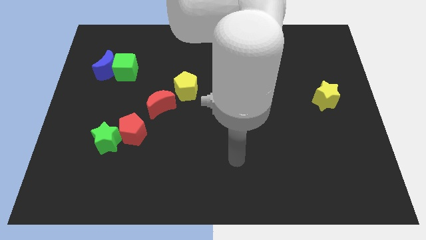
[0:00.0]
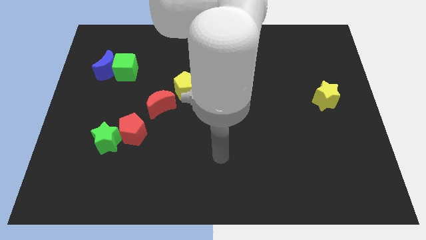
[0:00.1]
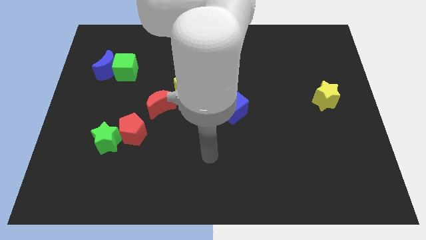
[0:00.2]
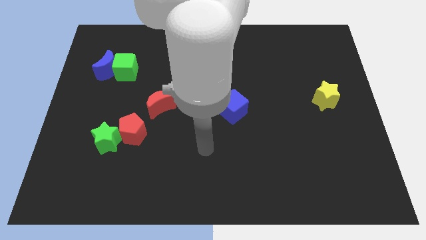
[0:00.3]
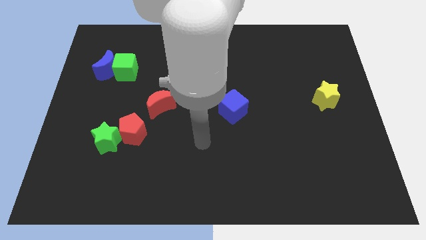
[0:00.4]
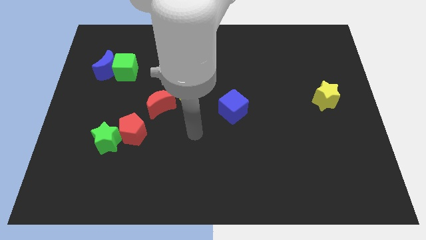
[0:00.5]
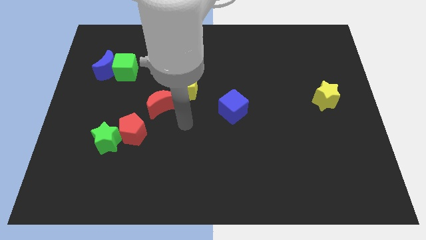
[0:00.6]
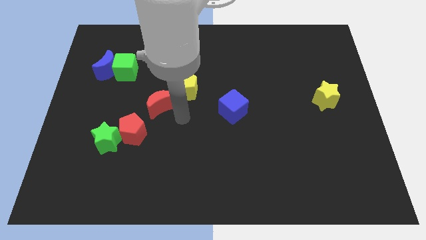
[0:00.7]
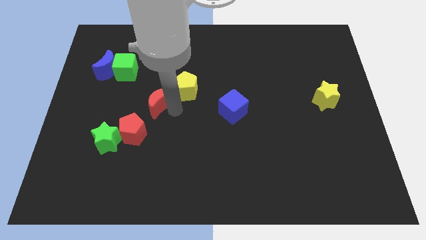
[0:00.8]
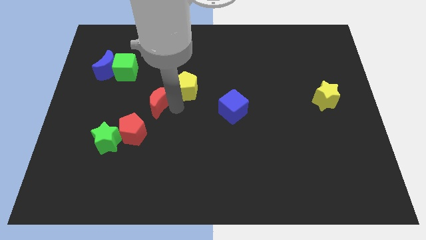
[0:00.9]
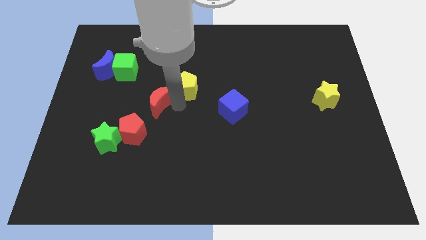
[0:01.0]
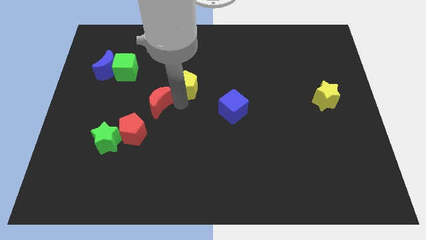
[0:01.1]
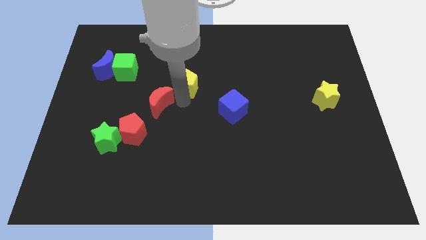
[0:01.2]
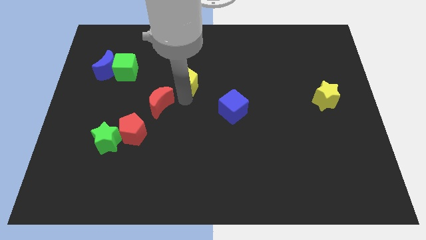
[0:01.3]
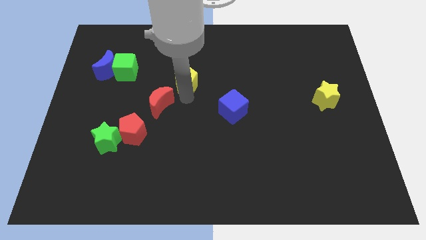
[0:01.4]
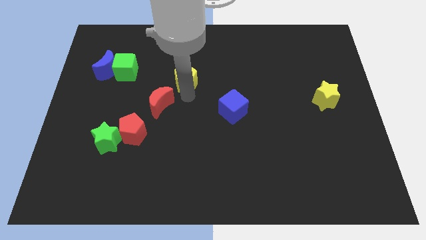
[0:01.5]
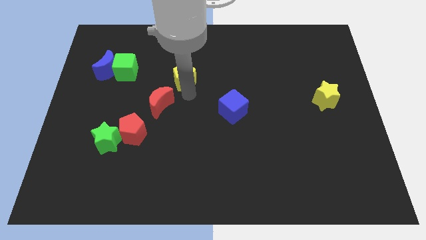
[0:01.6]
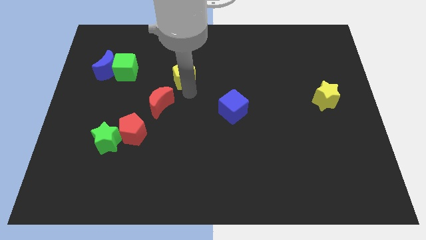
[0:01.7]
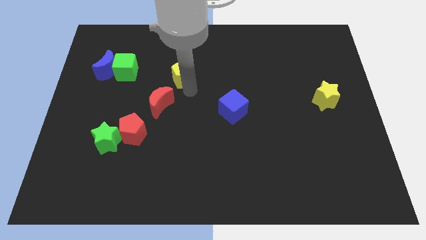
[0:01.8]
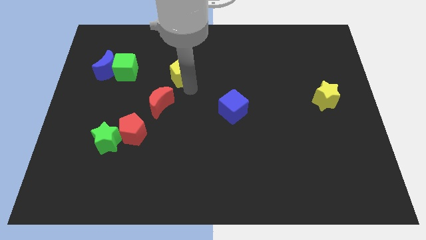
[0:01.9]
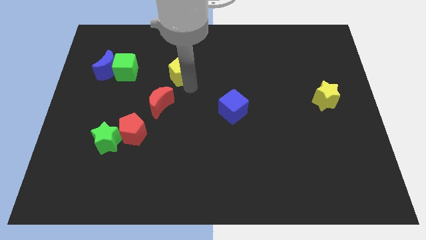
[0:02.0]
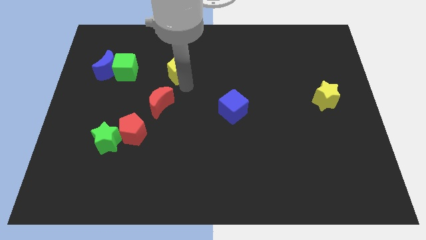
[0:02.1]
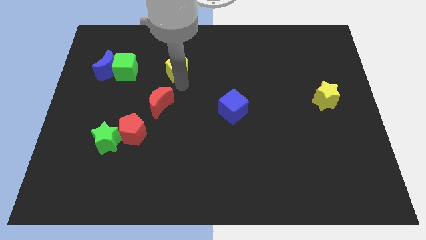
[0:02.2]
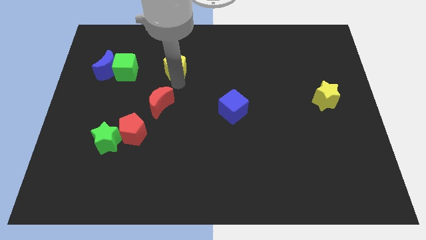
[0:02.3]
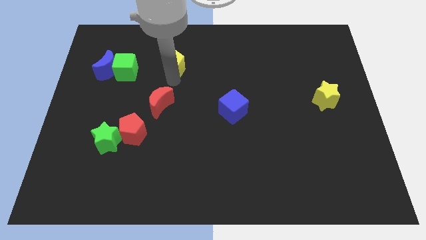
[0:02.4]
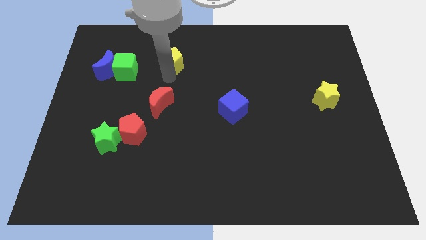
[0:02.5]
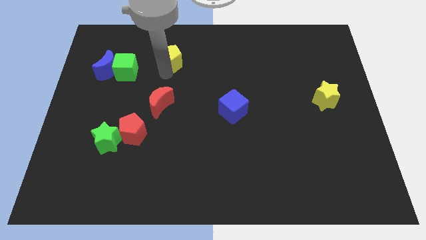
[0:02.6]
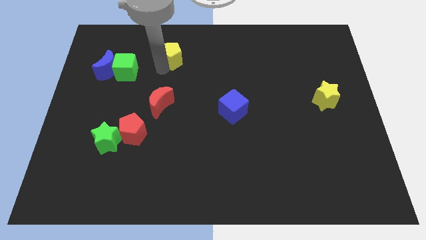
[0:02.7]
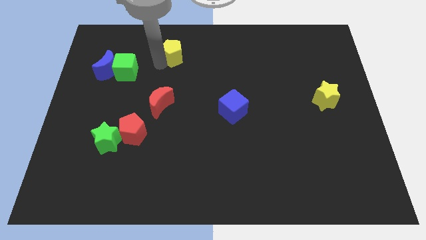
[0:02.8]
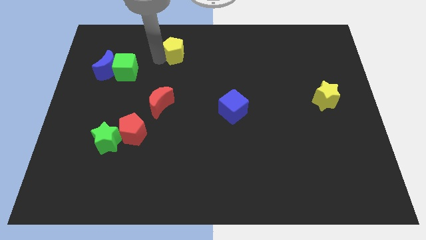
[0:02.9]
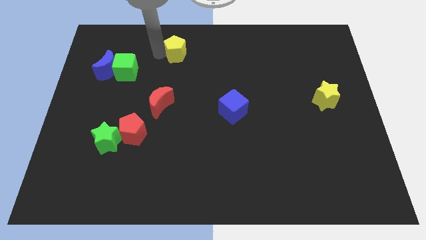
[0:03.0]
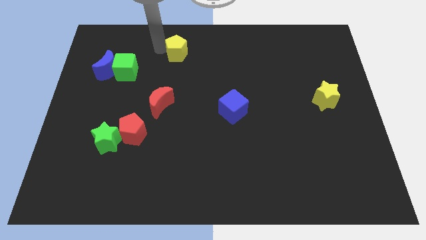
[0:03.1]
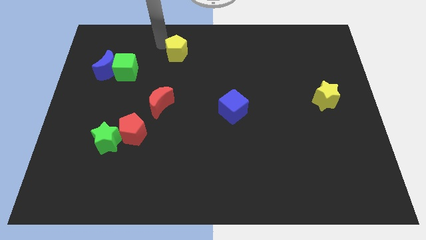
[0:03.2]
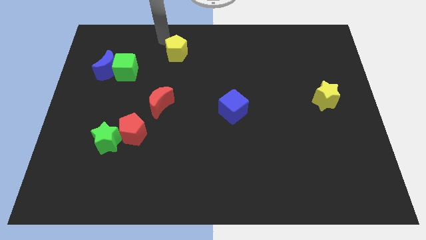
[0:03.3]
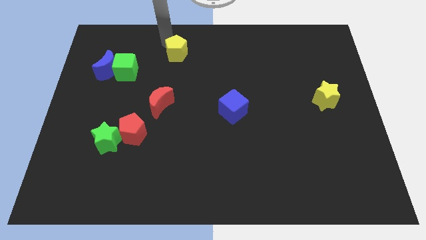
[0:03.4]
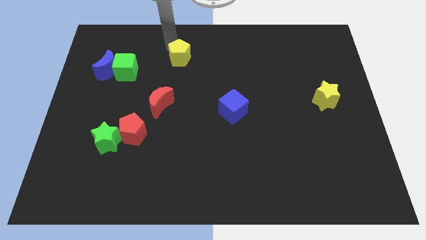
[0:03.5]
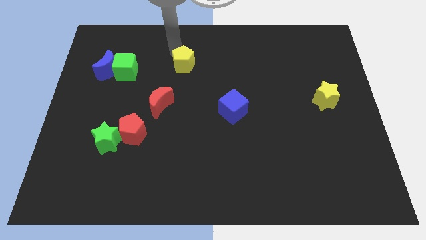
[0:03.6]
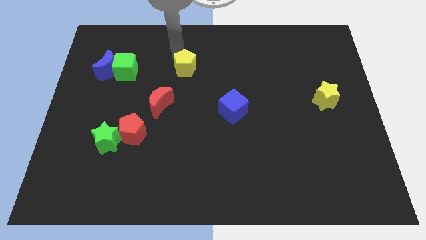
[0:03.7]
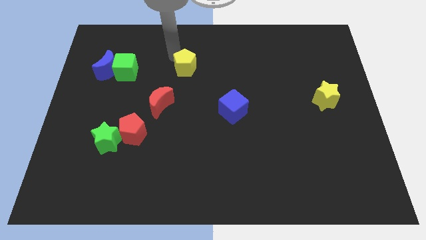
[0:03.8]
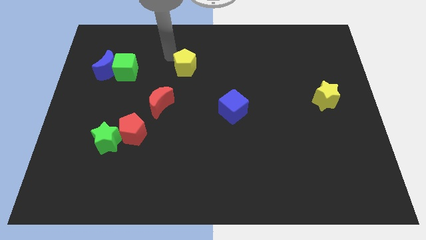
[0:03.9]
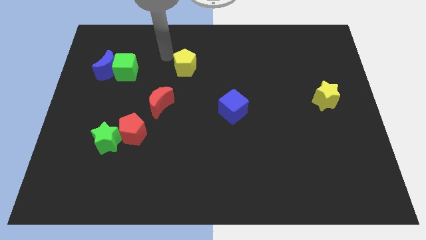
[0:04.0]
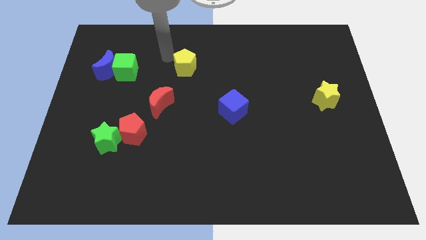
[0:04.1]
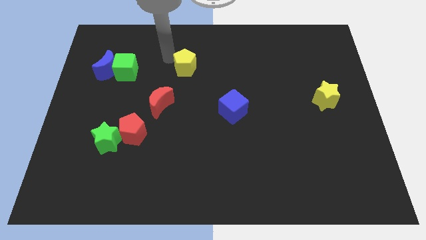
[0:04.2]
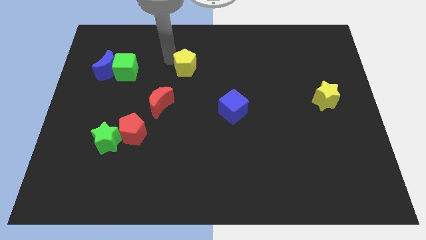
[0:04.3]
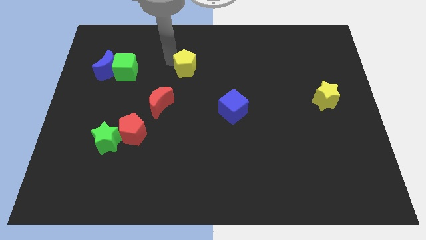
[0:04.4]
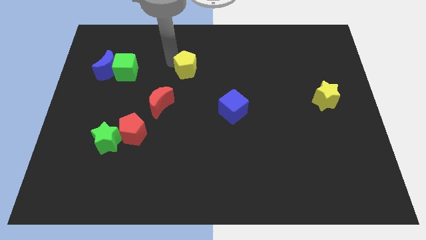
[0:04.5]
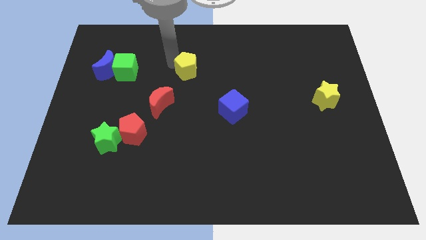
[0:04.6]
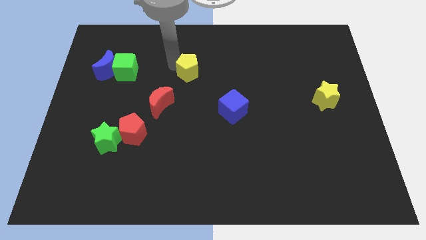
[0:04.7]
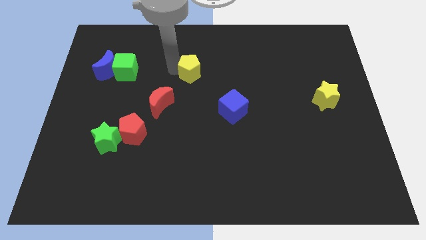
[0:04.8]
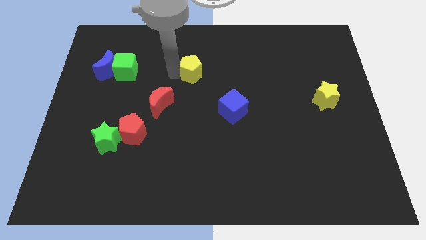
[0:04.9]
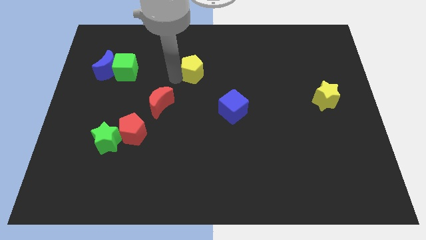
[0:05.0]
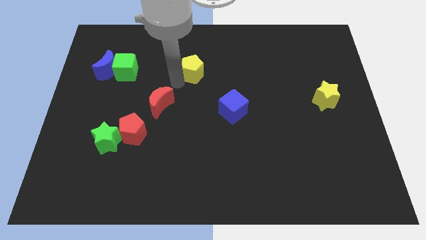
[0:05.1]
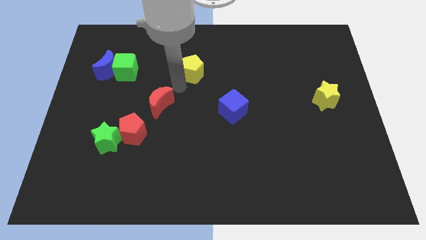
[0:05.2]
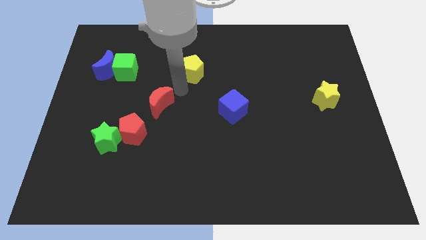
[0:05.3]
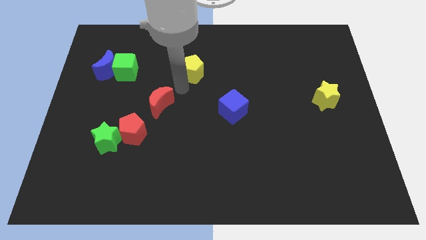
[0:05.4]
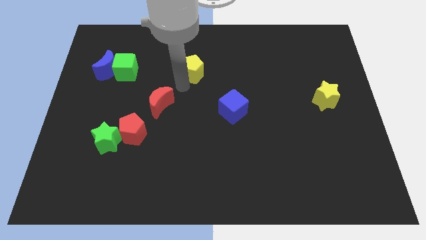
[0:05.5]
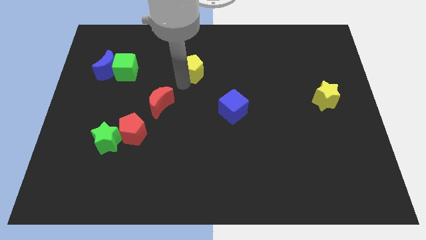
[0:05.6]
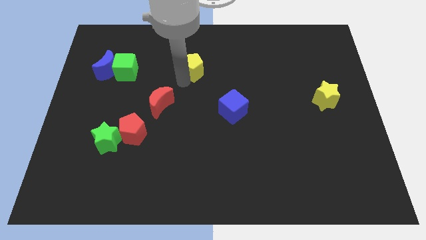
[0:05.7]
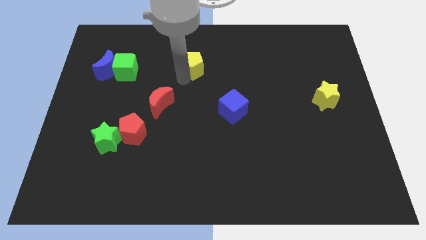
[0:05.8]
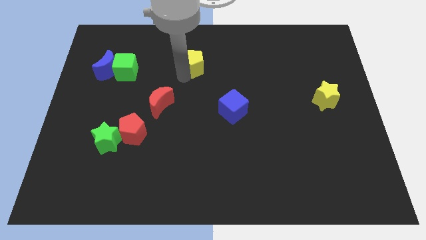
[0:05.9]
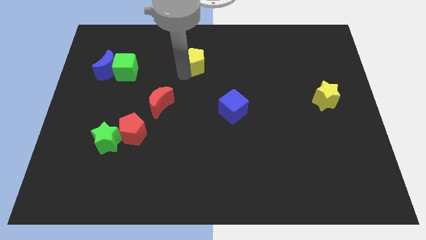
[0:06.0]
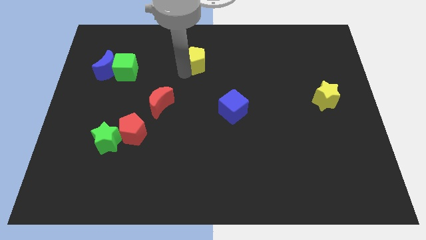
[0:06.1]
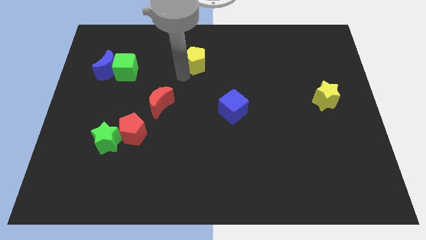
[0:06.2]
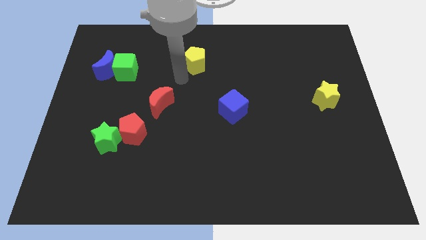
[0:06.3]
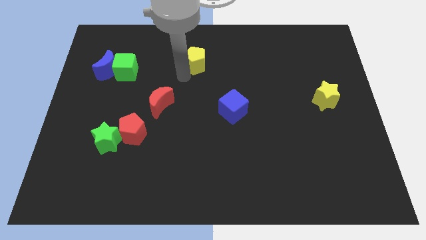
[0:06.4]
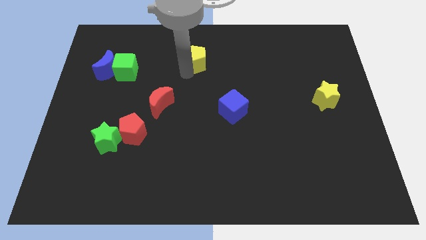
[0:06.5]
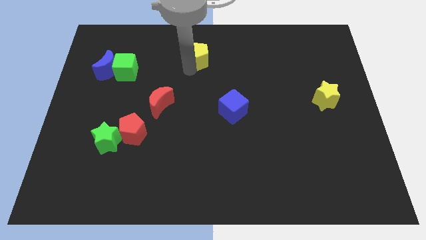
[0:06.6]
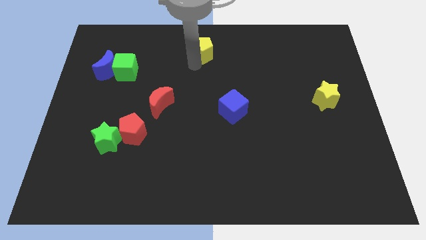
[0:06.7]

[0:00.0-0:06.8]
put the yellow pentagon to the towards your base

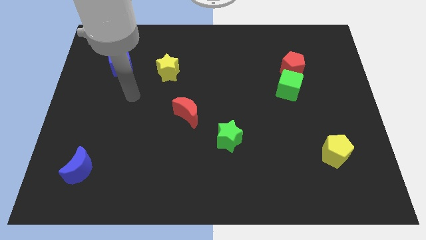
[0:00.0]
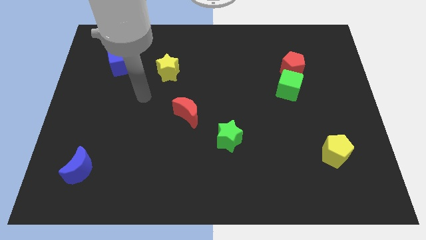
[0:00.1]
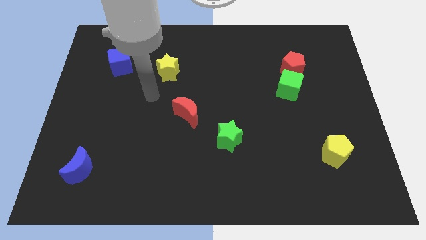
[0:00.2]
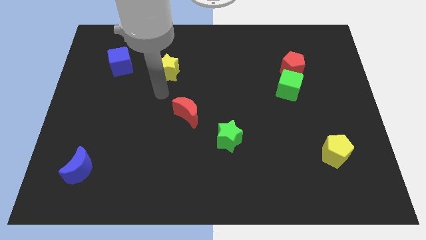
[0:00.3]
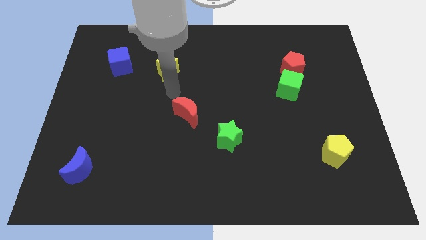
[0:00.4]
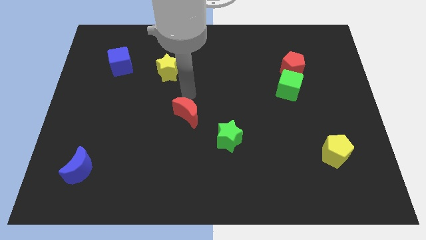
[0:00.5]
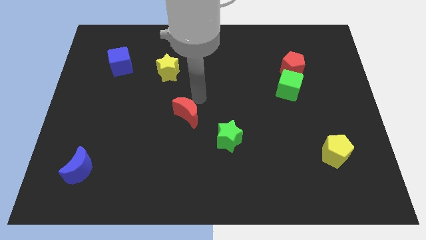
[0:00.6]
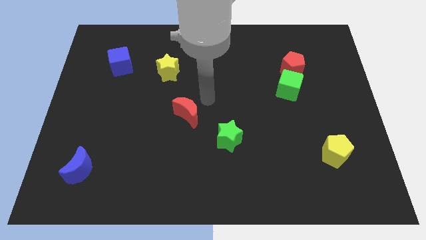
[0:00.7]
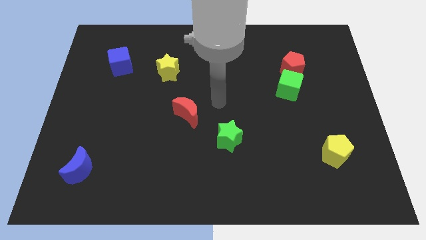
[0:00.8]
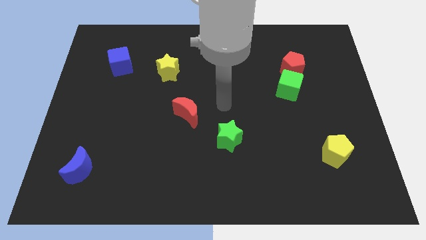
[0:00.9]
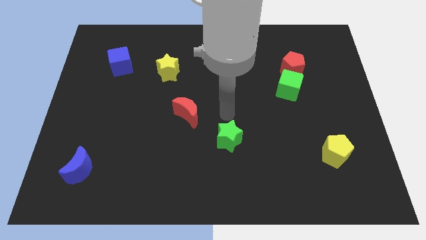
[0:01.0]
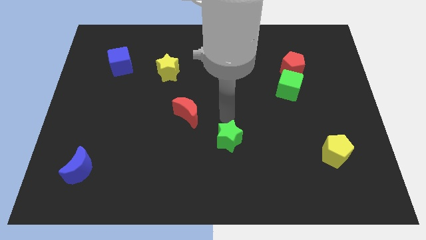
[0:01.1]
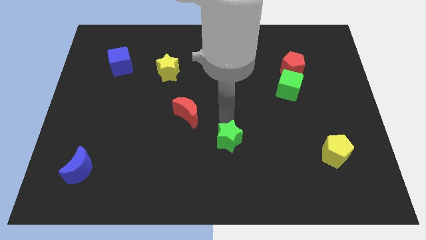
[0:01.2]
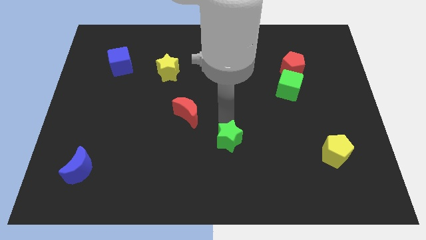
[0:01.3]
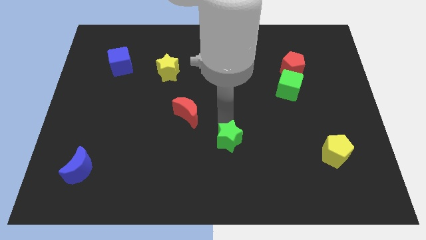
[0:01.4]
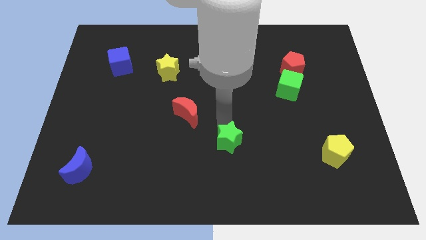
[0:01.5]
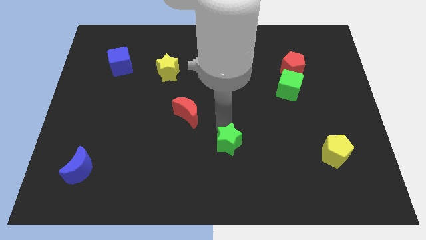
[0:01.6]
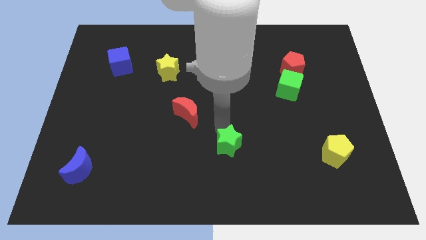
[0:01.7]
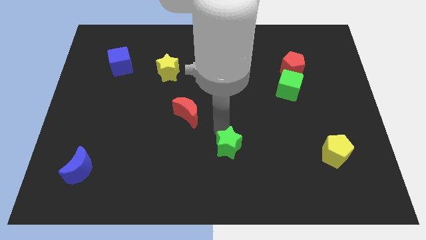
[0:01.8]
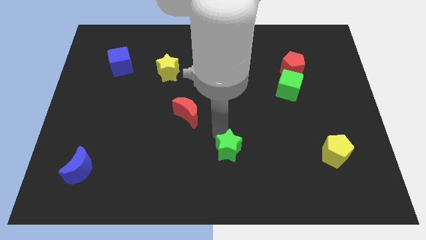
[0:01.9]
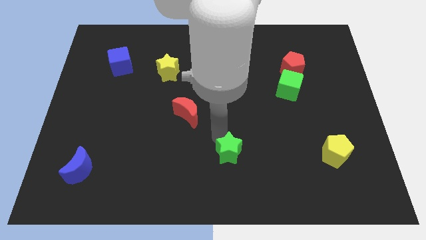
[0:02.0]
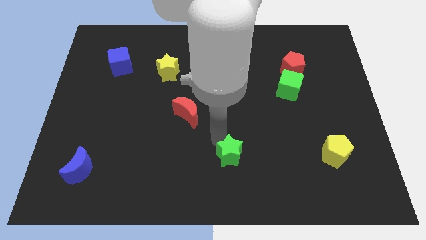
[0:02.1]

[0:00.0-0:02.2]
move the green star to the bottom
